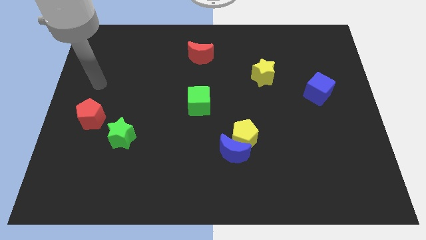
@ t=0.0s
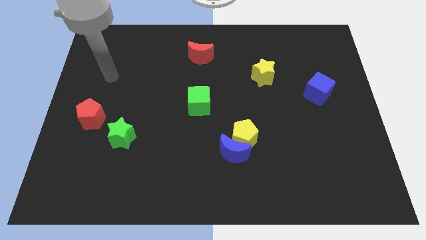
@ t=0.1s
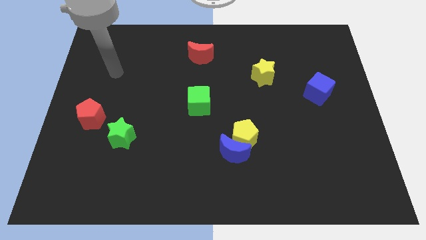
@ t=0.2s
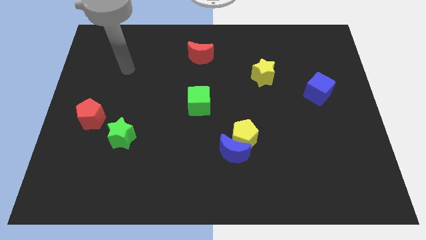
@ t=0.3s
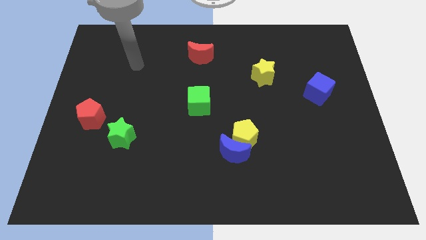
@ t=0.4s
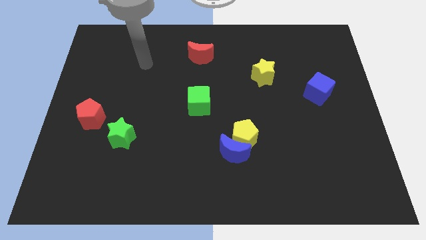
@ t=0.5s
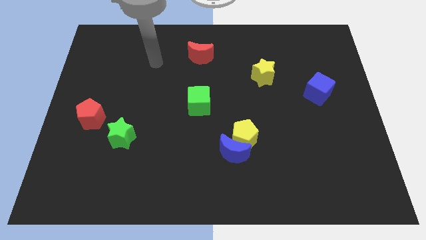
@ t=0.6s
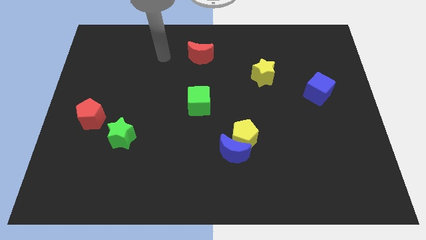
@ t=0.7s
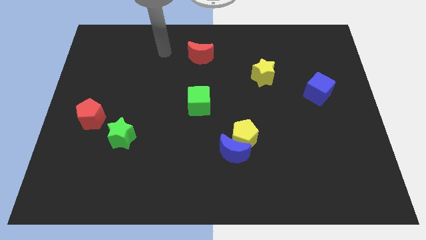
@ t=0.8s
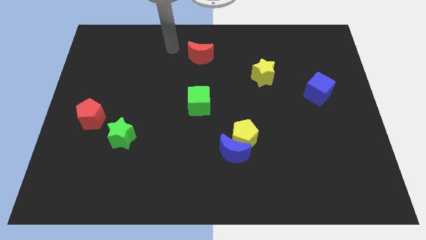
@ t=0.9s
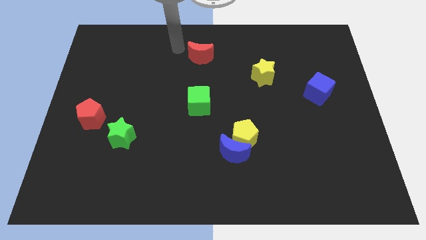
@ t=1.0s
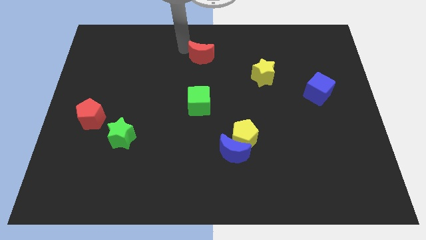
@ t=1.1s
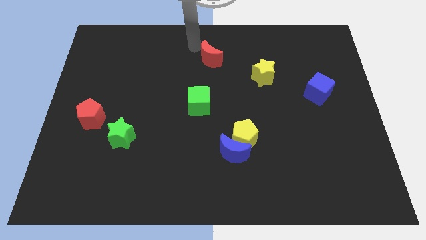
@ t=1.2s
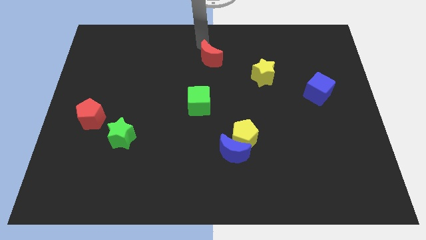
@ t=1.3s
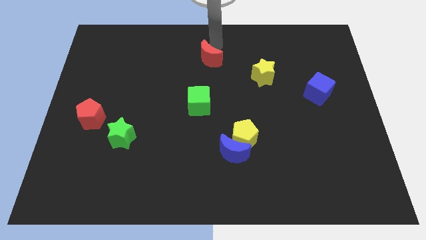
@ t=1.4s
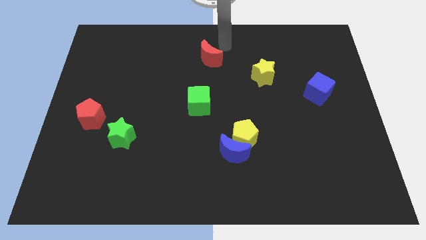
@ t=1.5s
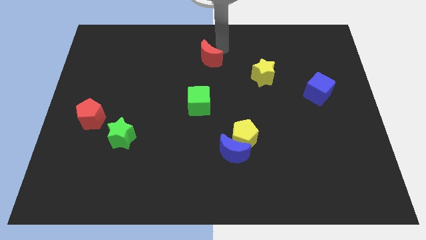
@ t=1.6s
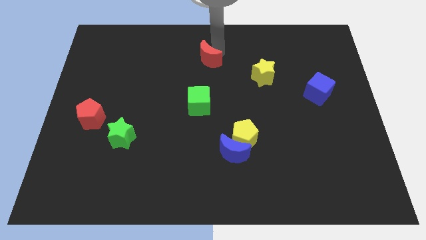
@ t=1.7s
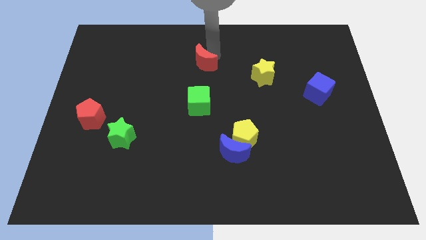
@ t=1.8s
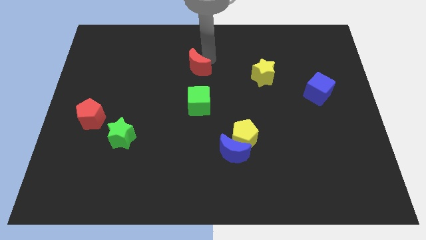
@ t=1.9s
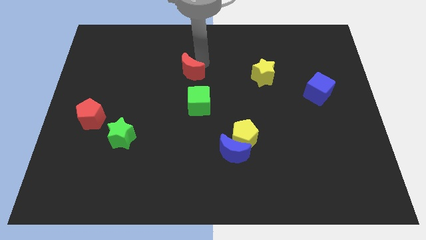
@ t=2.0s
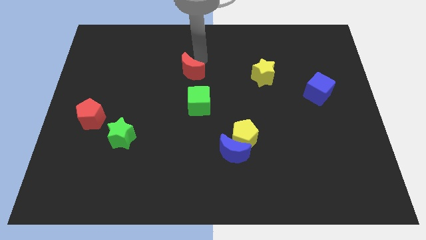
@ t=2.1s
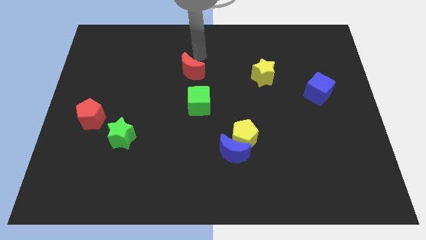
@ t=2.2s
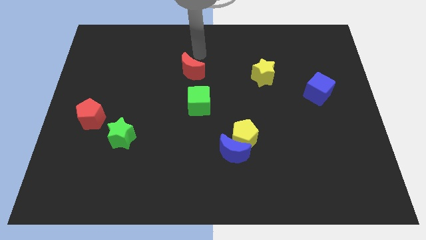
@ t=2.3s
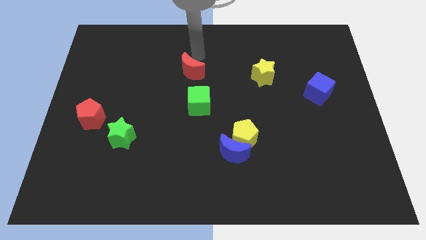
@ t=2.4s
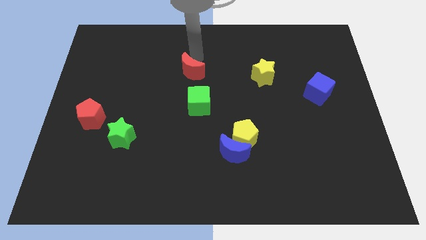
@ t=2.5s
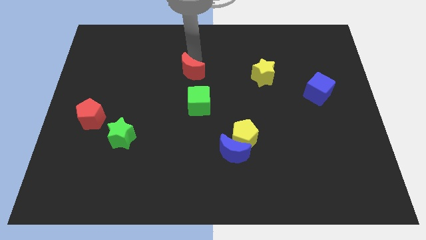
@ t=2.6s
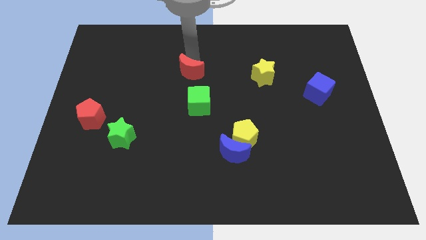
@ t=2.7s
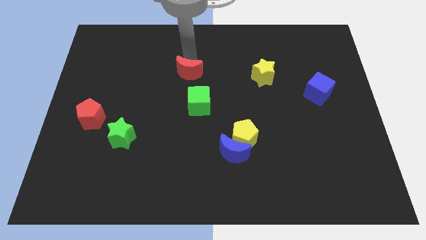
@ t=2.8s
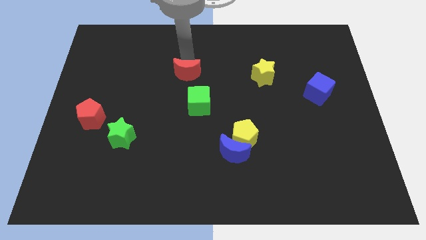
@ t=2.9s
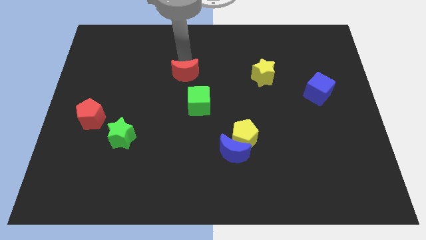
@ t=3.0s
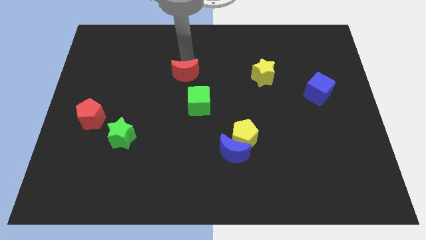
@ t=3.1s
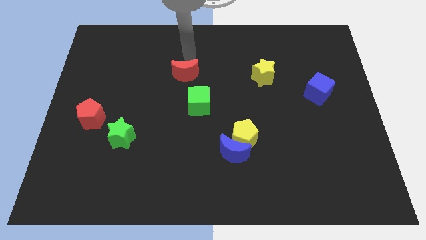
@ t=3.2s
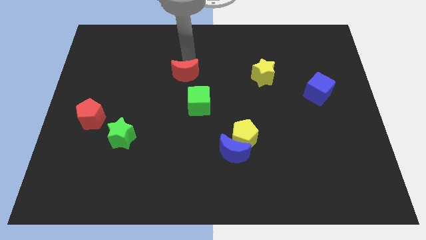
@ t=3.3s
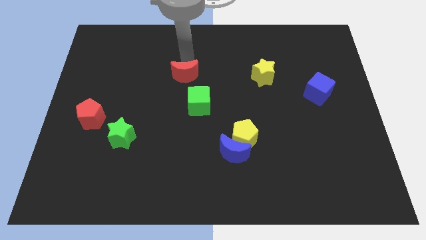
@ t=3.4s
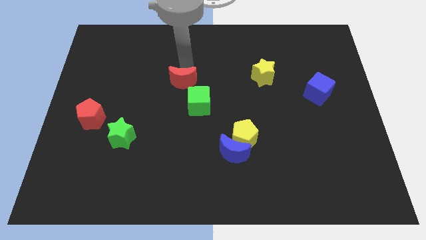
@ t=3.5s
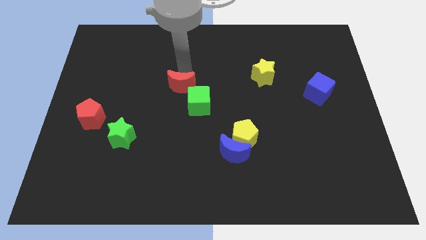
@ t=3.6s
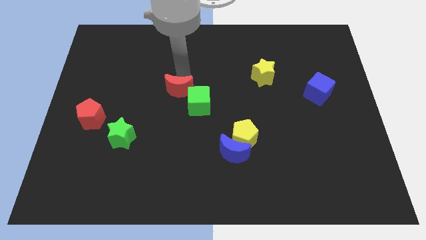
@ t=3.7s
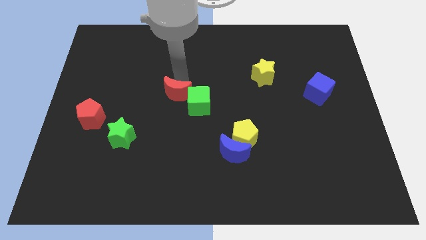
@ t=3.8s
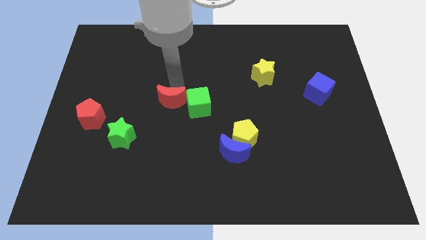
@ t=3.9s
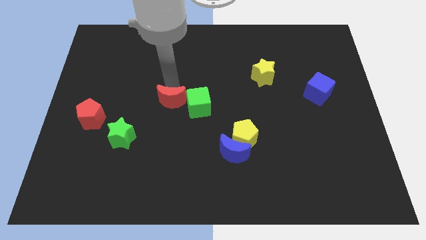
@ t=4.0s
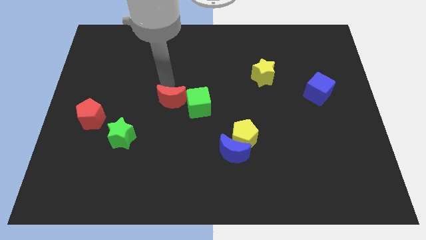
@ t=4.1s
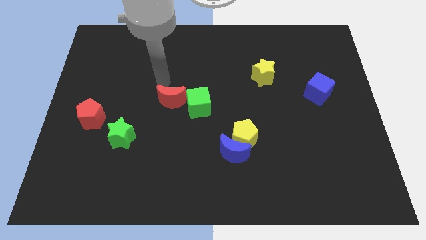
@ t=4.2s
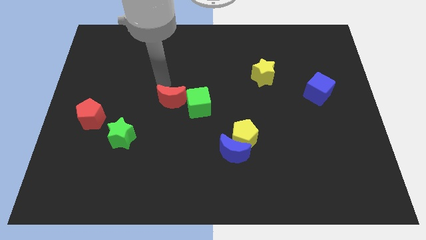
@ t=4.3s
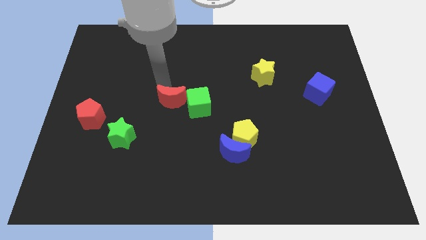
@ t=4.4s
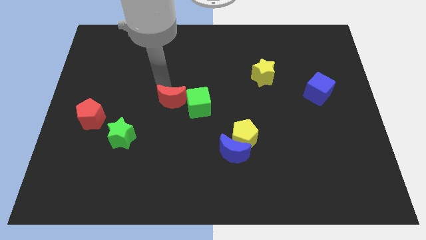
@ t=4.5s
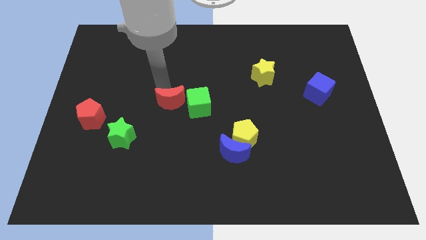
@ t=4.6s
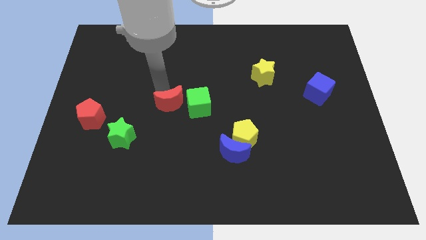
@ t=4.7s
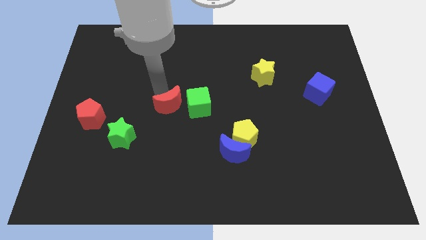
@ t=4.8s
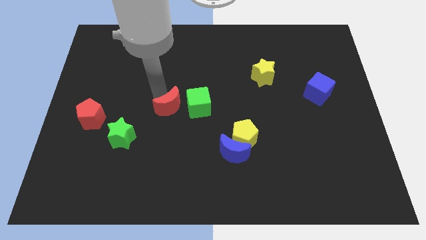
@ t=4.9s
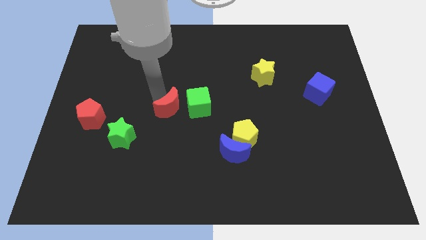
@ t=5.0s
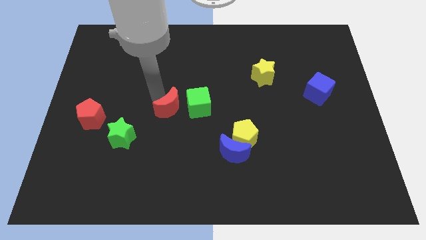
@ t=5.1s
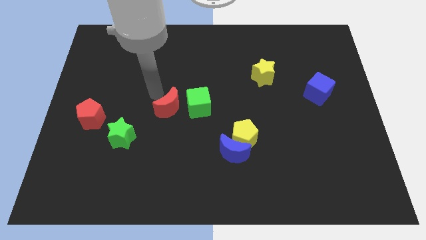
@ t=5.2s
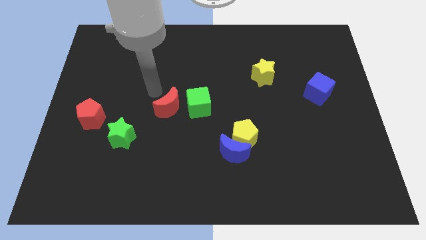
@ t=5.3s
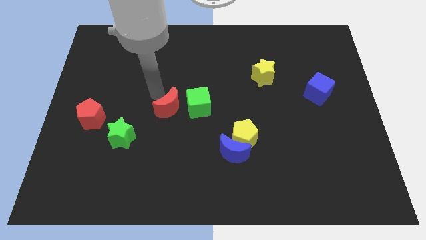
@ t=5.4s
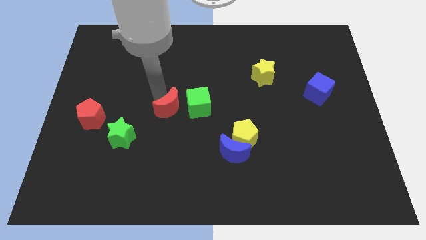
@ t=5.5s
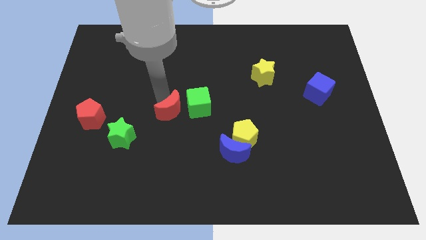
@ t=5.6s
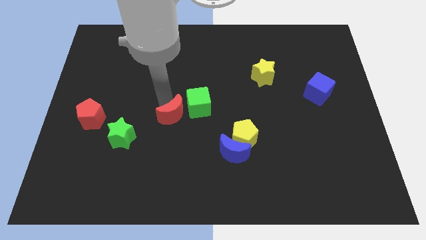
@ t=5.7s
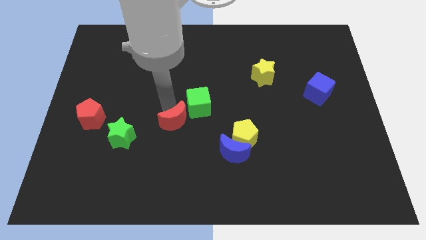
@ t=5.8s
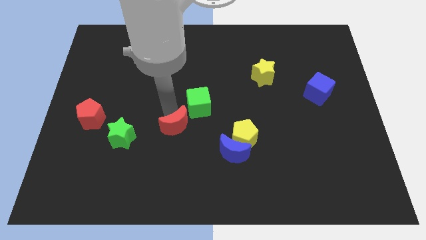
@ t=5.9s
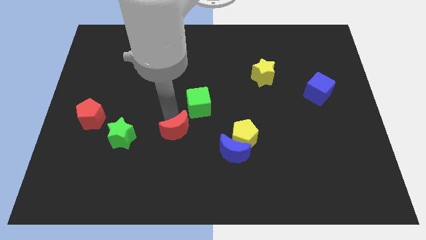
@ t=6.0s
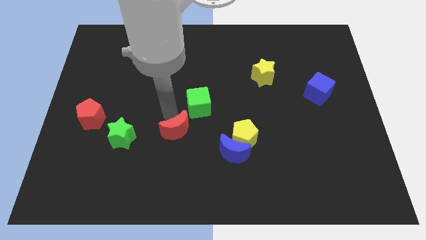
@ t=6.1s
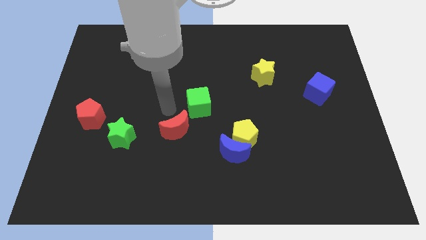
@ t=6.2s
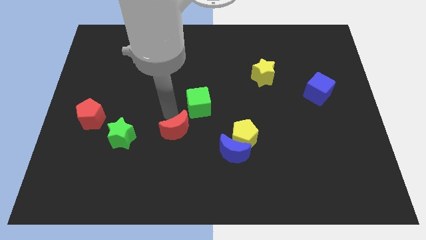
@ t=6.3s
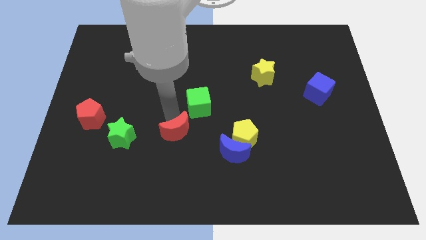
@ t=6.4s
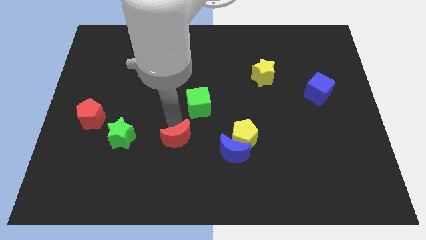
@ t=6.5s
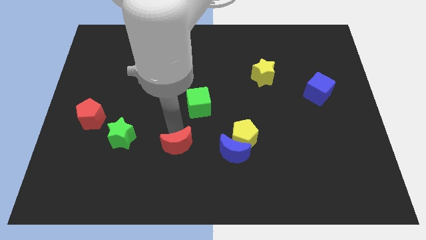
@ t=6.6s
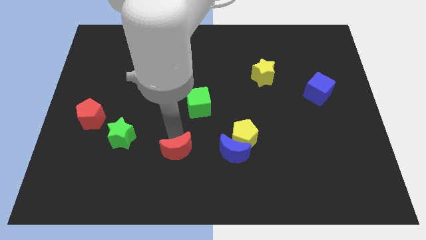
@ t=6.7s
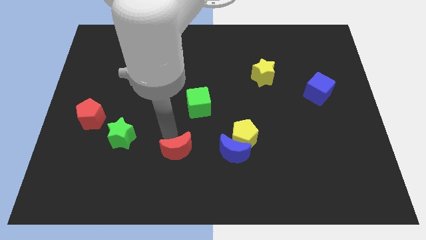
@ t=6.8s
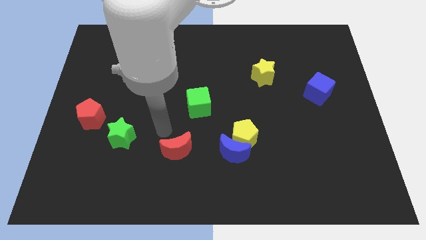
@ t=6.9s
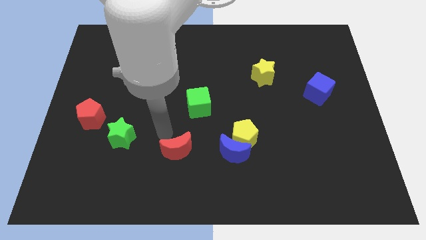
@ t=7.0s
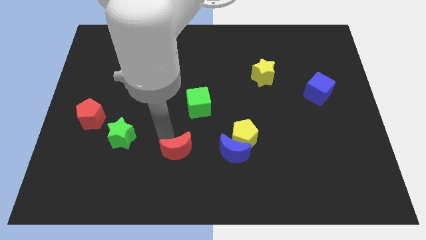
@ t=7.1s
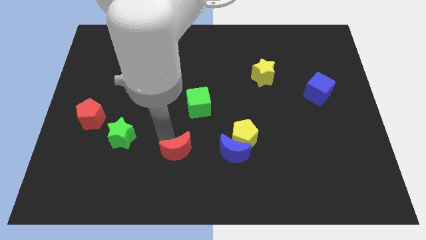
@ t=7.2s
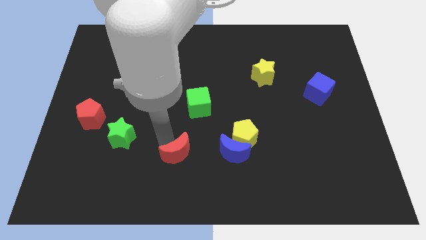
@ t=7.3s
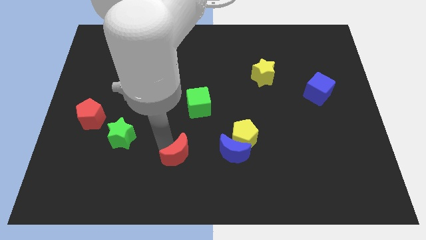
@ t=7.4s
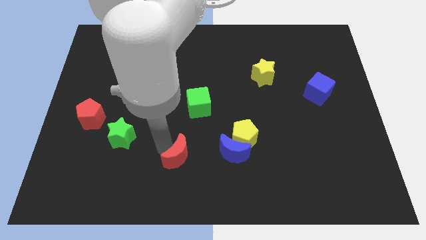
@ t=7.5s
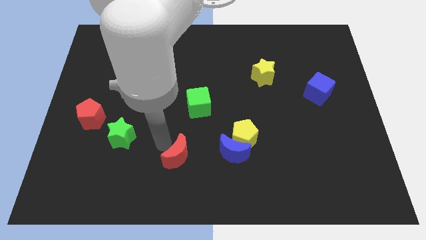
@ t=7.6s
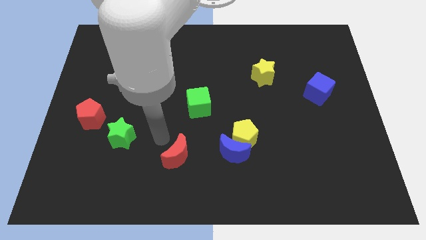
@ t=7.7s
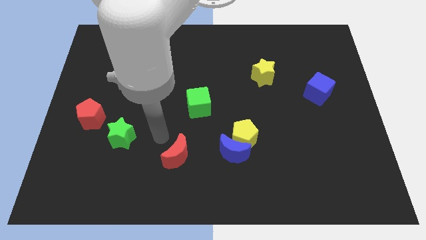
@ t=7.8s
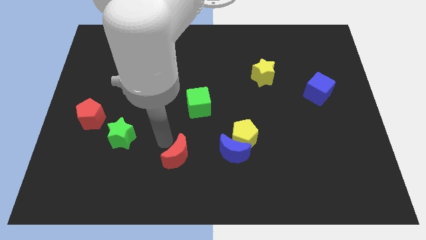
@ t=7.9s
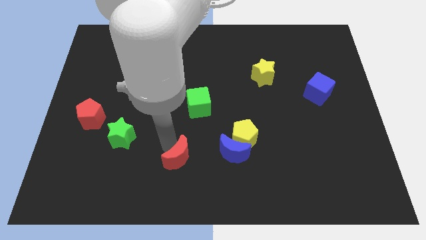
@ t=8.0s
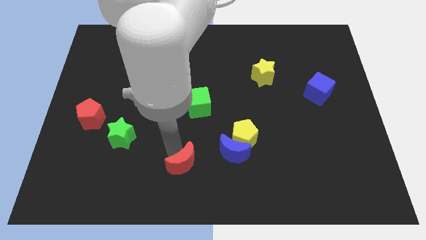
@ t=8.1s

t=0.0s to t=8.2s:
push the red moon to the bottom side
